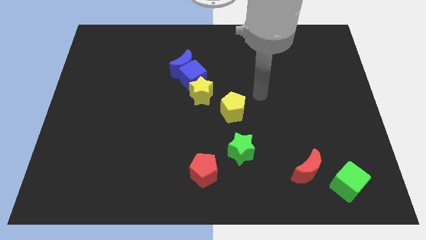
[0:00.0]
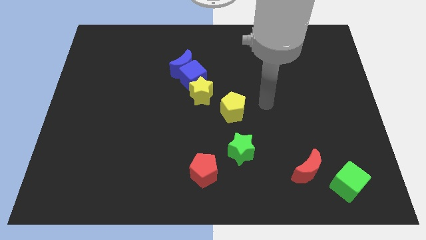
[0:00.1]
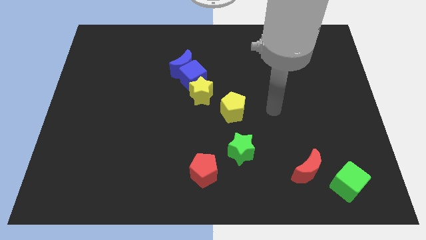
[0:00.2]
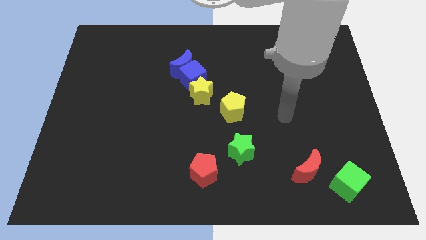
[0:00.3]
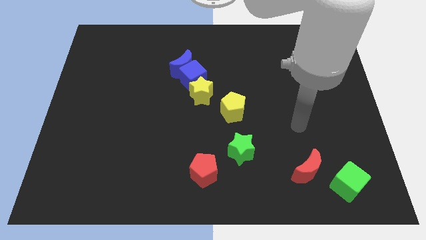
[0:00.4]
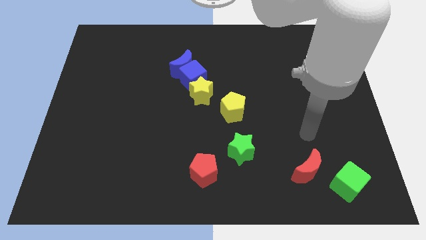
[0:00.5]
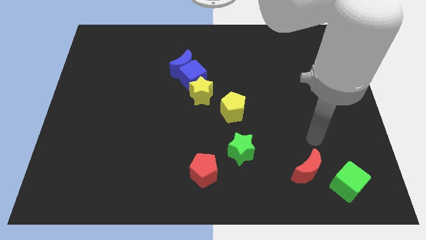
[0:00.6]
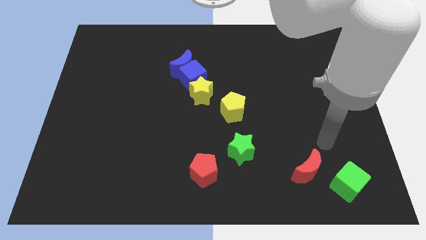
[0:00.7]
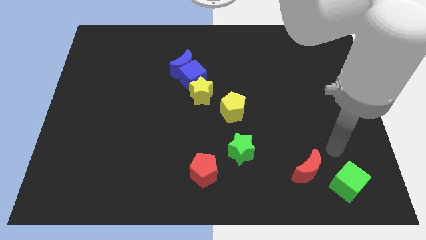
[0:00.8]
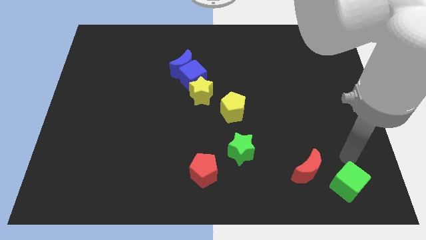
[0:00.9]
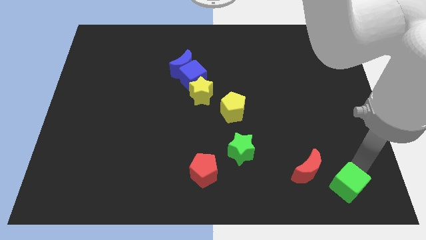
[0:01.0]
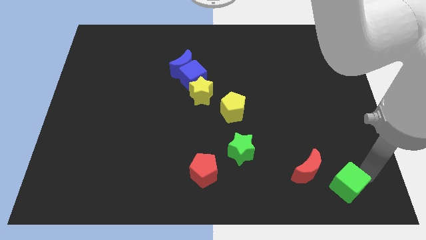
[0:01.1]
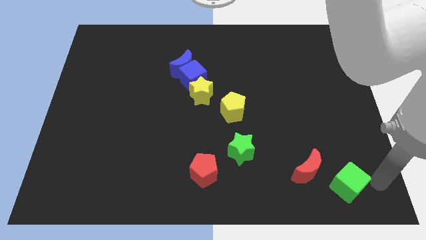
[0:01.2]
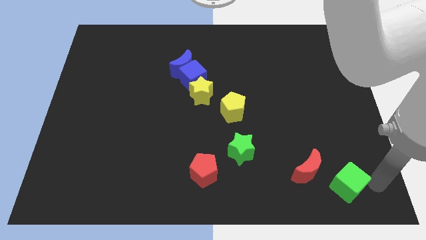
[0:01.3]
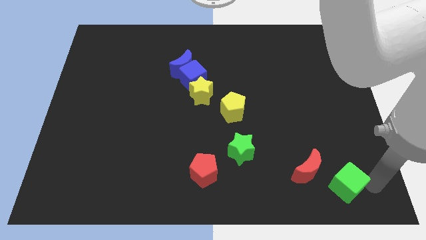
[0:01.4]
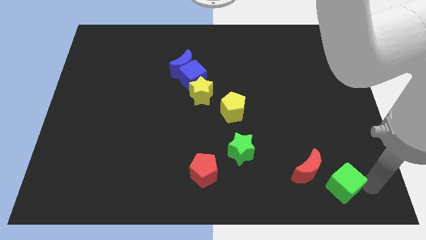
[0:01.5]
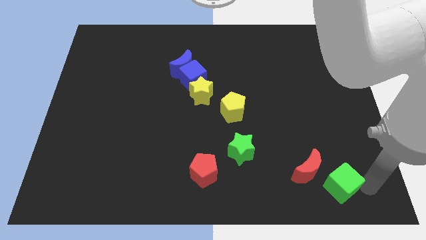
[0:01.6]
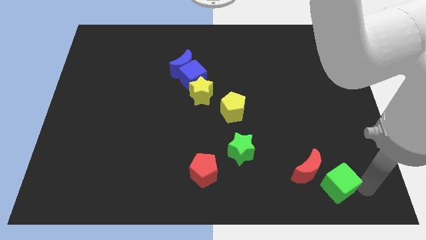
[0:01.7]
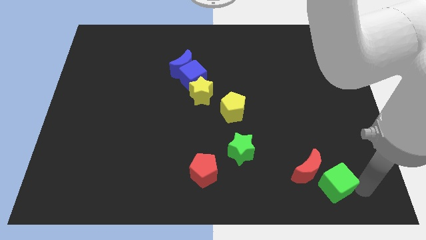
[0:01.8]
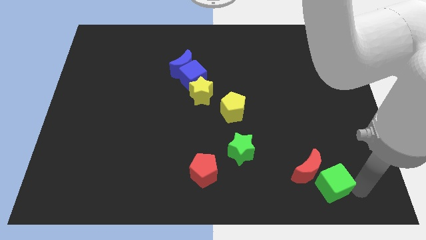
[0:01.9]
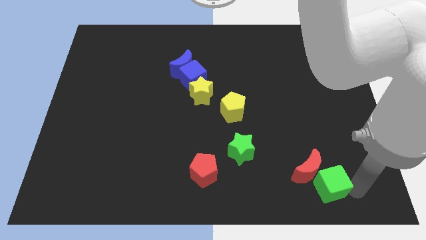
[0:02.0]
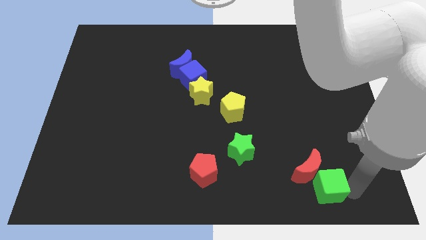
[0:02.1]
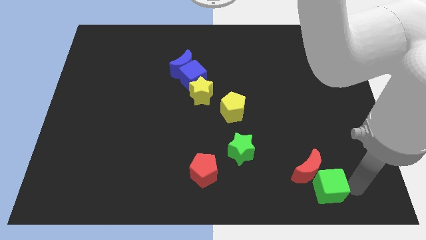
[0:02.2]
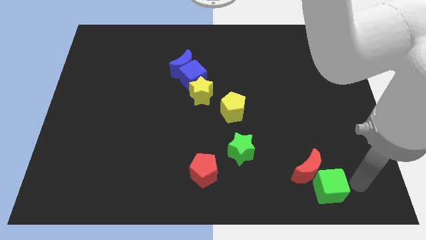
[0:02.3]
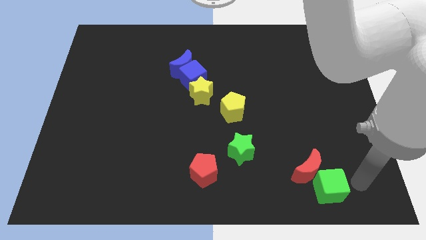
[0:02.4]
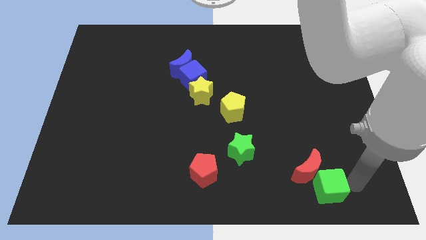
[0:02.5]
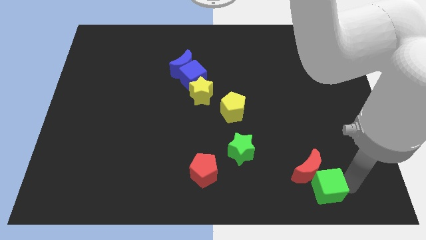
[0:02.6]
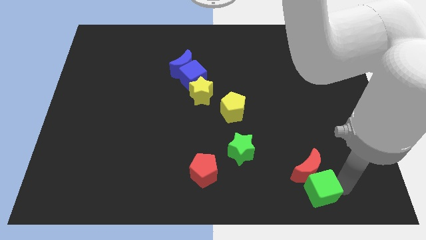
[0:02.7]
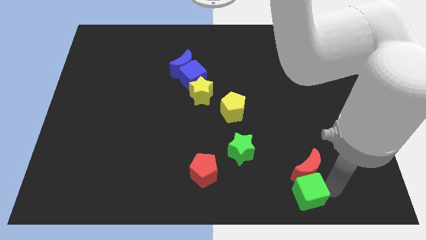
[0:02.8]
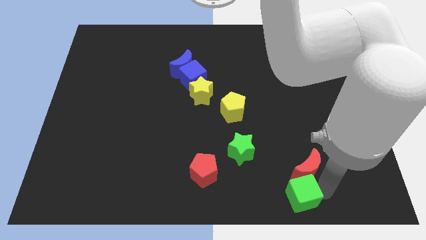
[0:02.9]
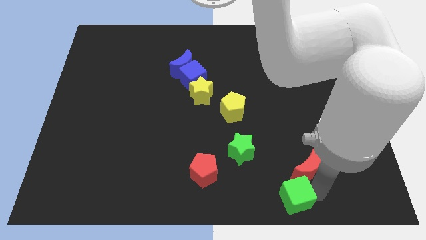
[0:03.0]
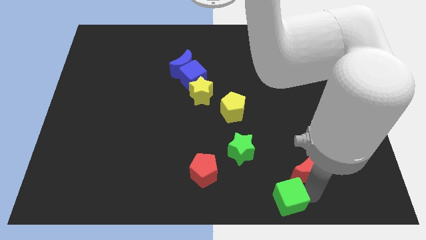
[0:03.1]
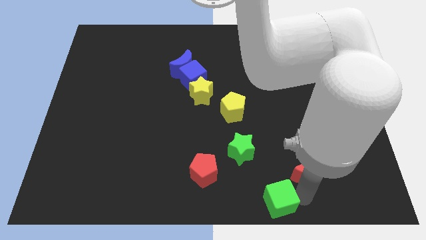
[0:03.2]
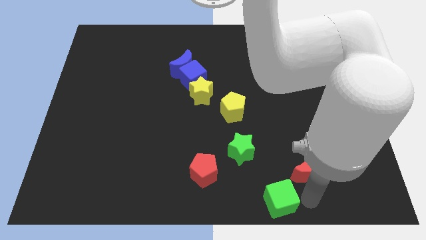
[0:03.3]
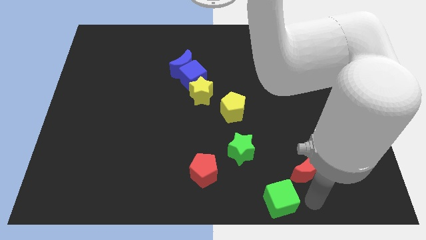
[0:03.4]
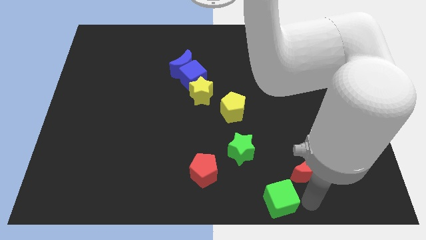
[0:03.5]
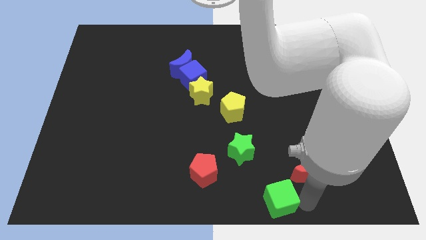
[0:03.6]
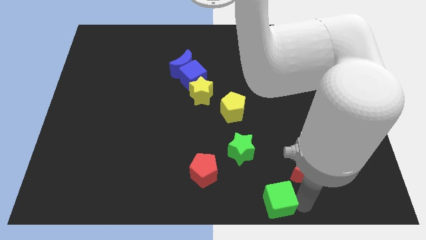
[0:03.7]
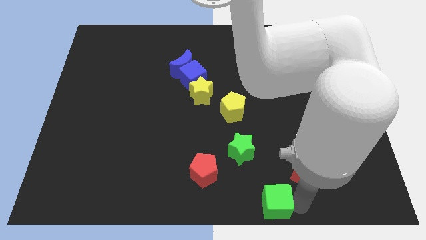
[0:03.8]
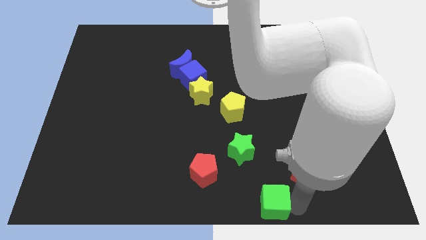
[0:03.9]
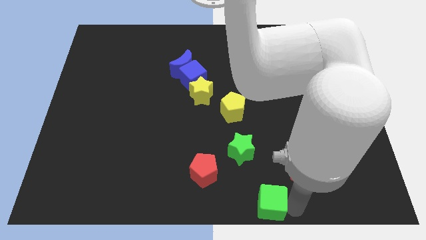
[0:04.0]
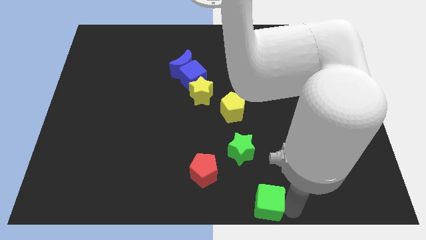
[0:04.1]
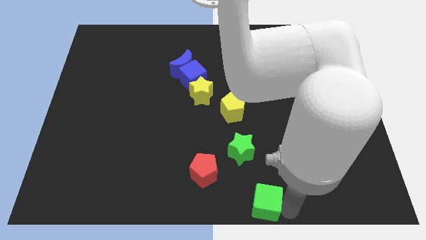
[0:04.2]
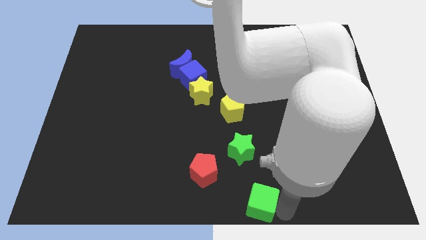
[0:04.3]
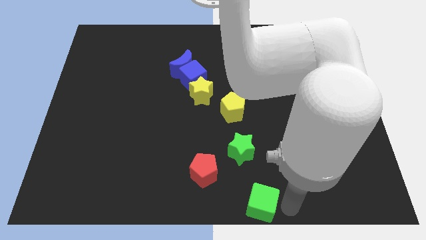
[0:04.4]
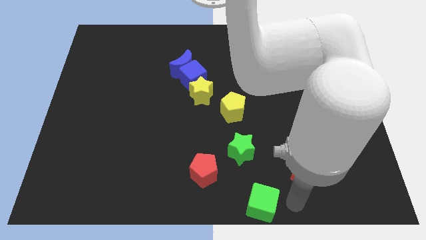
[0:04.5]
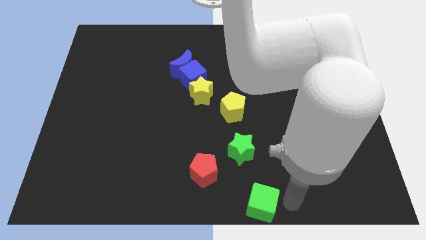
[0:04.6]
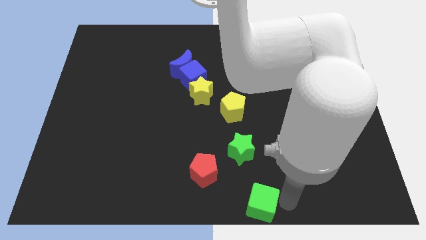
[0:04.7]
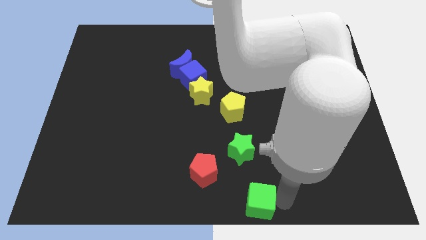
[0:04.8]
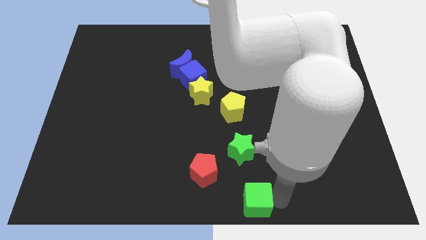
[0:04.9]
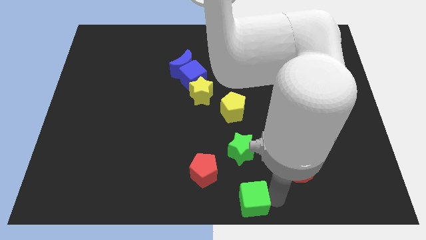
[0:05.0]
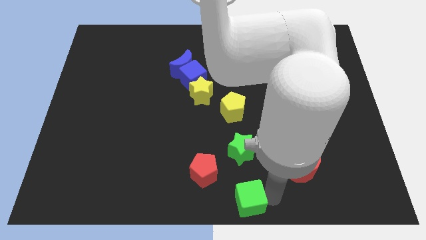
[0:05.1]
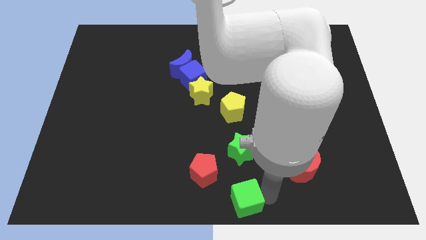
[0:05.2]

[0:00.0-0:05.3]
move the green cube to the left

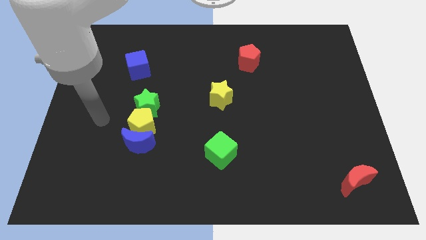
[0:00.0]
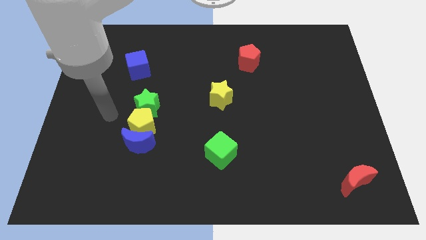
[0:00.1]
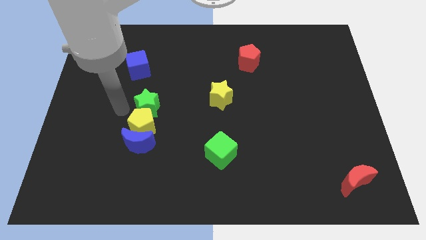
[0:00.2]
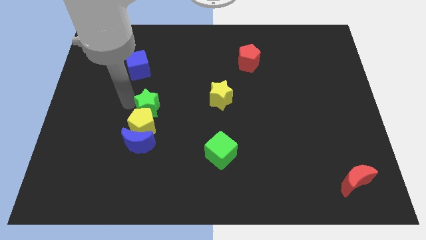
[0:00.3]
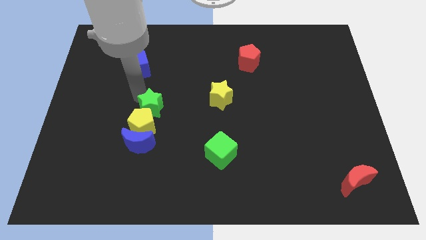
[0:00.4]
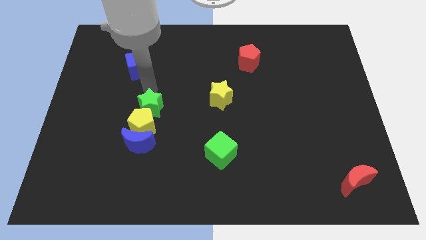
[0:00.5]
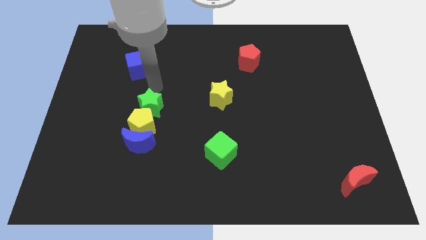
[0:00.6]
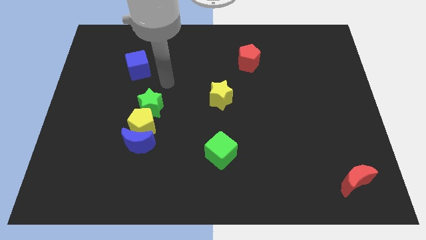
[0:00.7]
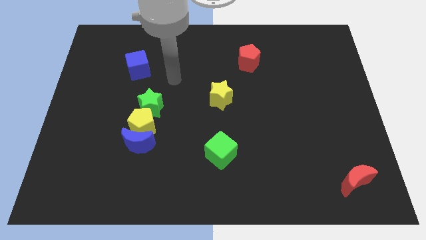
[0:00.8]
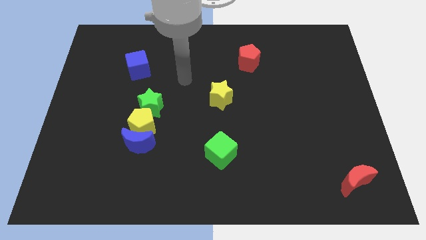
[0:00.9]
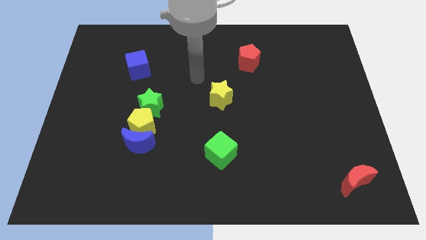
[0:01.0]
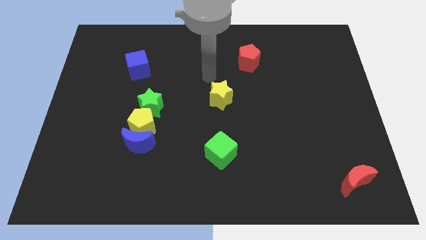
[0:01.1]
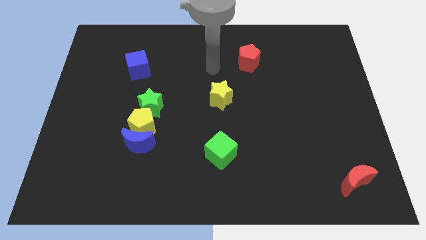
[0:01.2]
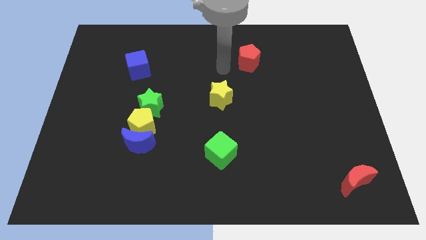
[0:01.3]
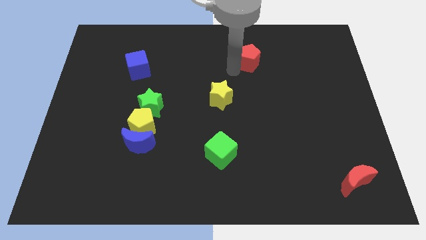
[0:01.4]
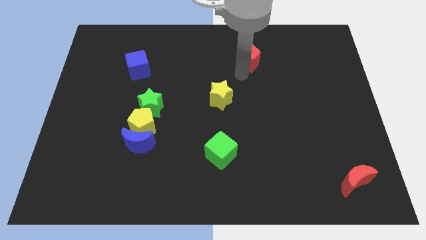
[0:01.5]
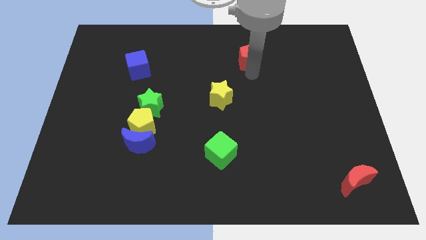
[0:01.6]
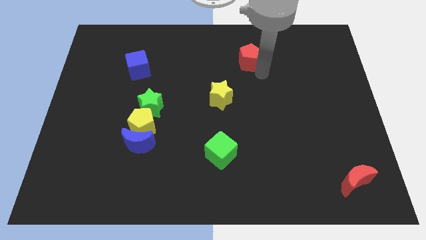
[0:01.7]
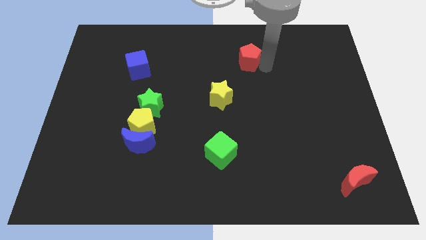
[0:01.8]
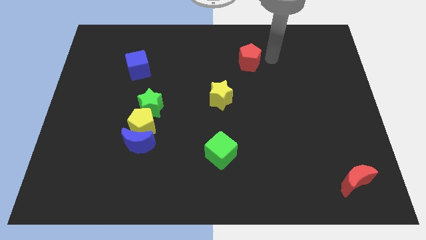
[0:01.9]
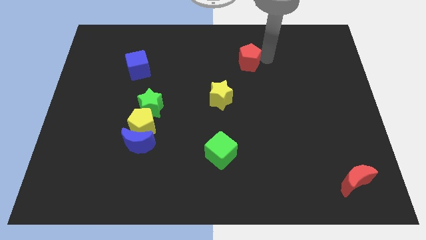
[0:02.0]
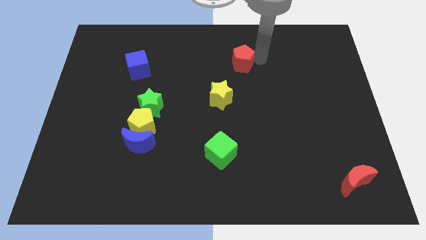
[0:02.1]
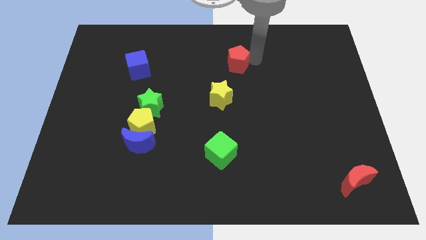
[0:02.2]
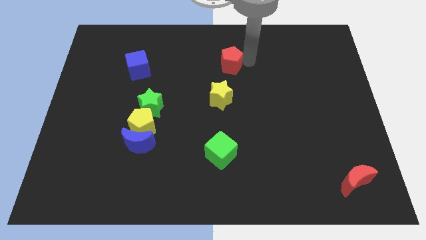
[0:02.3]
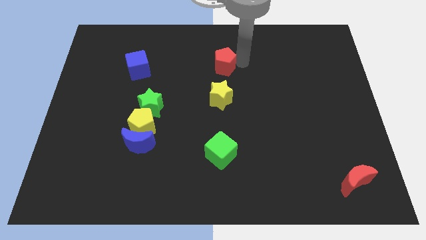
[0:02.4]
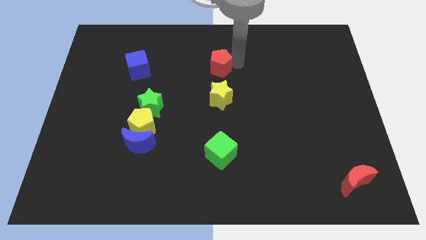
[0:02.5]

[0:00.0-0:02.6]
push the red pentagon a bit left

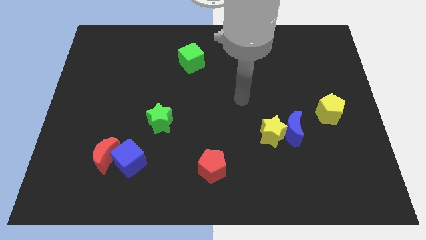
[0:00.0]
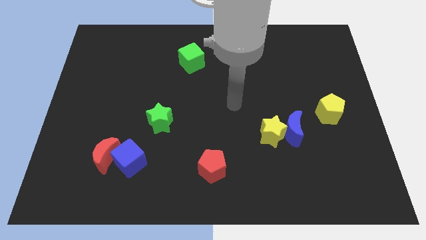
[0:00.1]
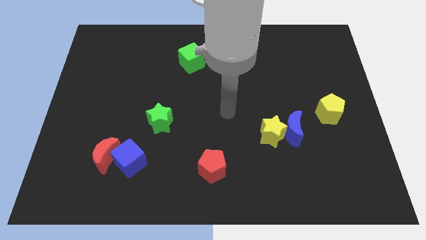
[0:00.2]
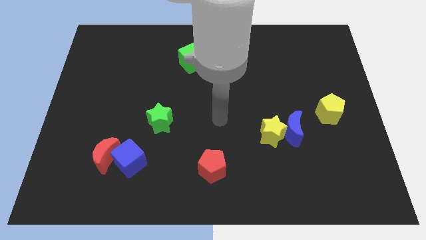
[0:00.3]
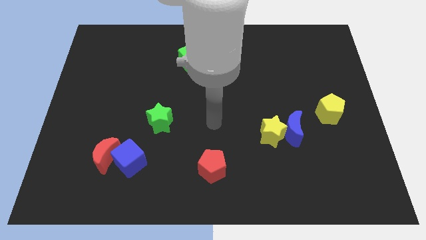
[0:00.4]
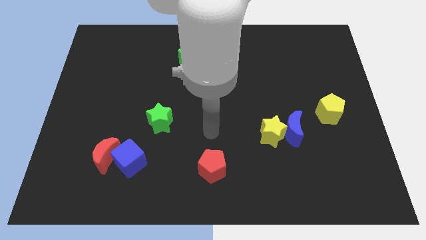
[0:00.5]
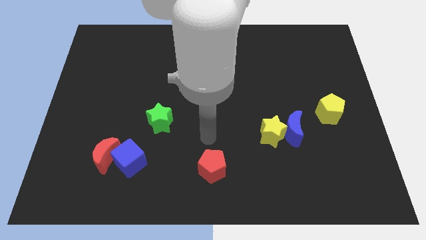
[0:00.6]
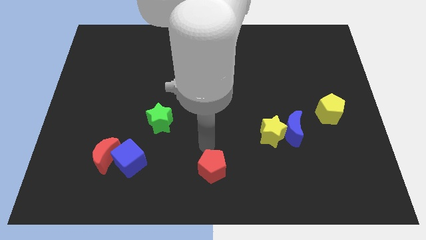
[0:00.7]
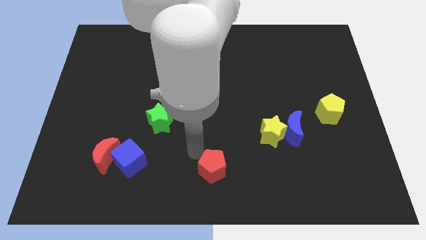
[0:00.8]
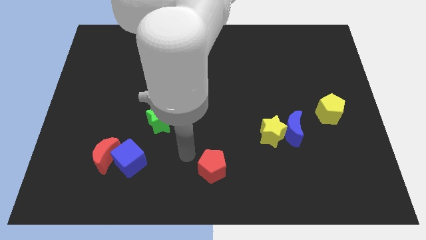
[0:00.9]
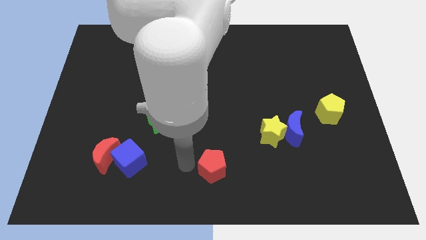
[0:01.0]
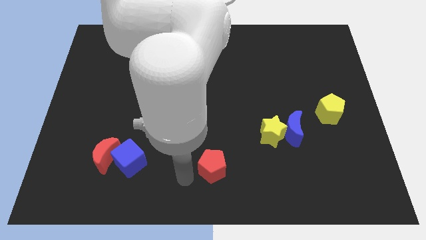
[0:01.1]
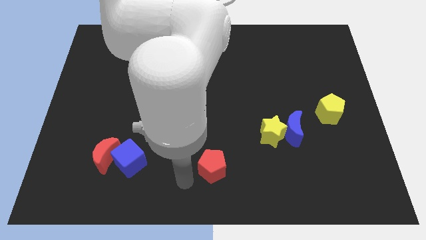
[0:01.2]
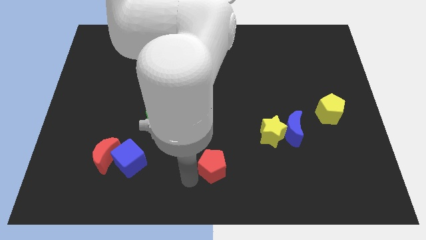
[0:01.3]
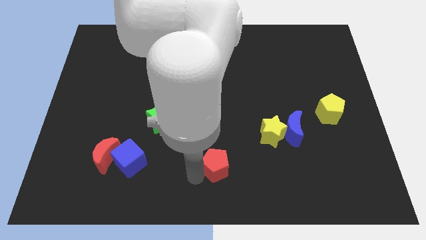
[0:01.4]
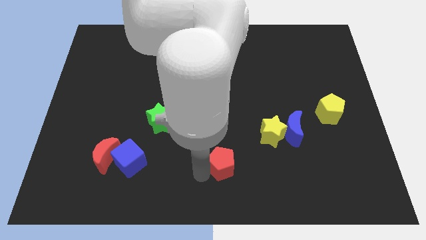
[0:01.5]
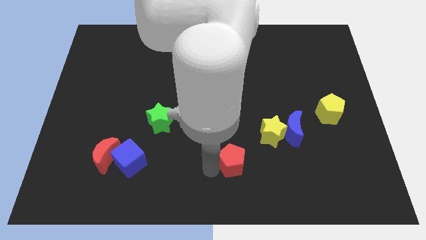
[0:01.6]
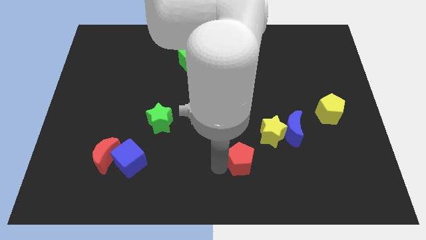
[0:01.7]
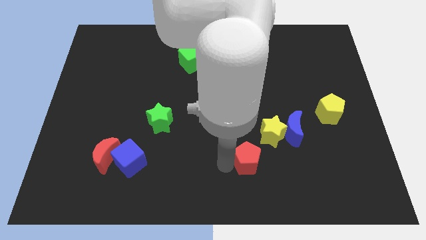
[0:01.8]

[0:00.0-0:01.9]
move the red pentagon right somewhat
